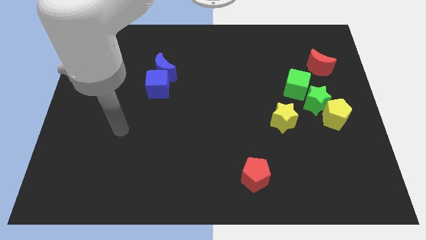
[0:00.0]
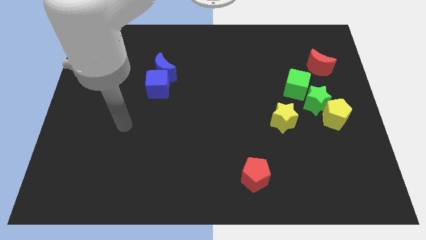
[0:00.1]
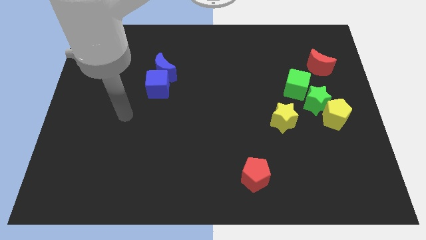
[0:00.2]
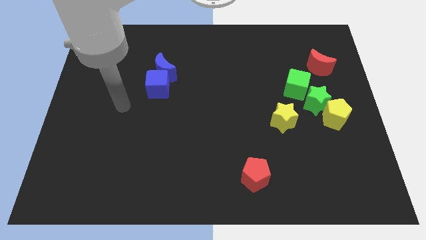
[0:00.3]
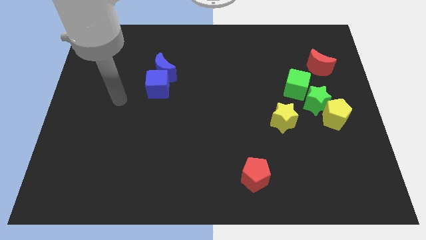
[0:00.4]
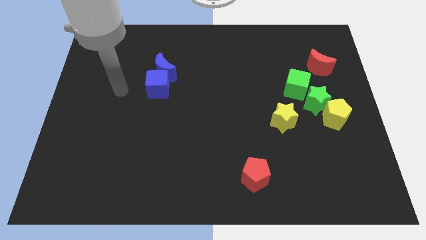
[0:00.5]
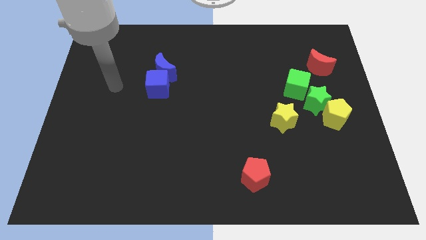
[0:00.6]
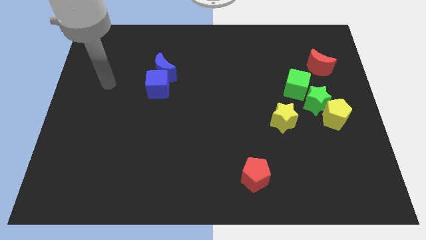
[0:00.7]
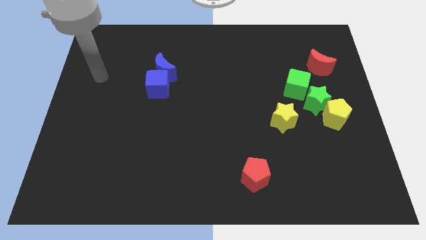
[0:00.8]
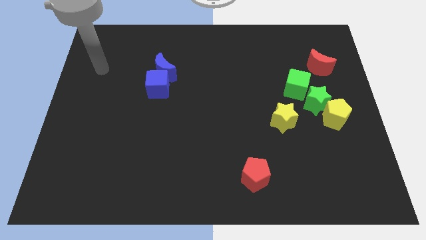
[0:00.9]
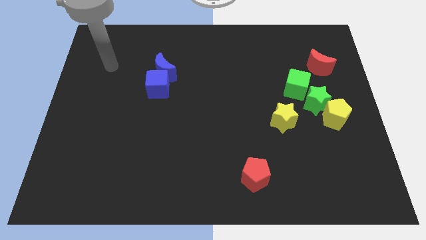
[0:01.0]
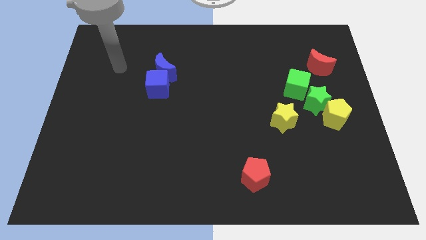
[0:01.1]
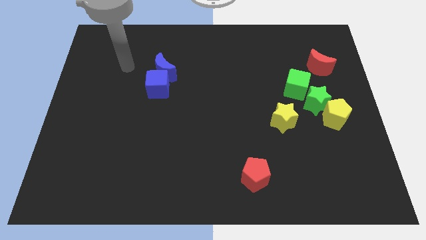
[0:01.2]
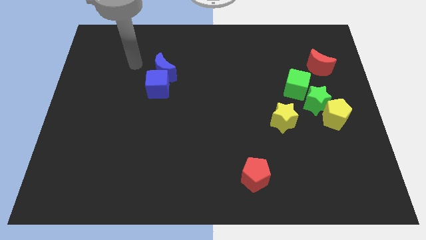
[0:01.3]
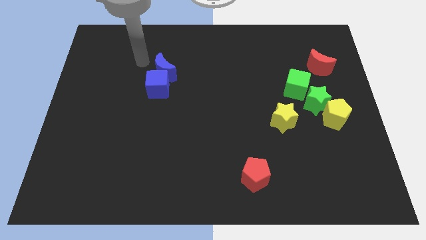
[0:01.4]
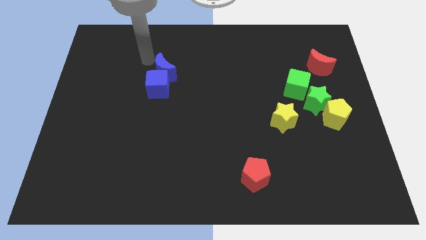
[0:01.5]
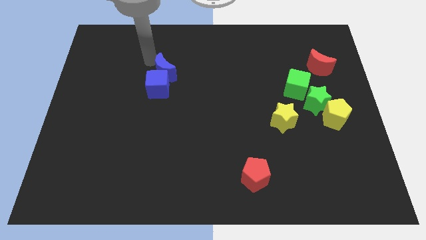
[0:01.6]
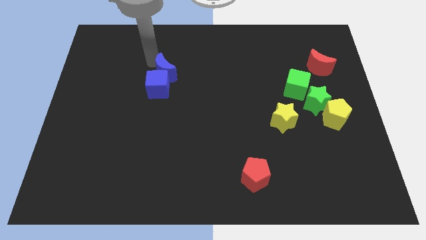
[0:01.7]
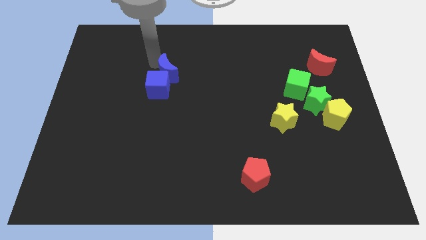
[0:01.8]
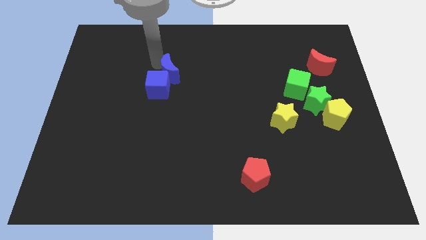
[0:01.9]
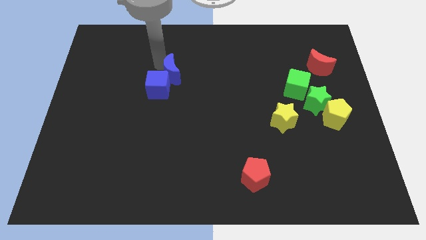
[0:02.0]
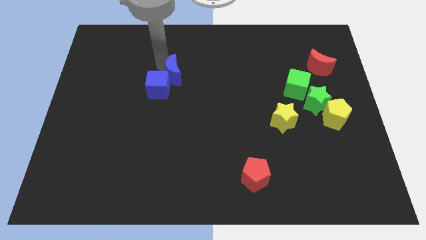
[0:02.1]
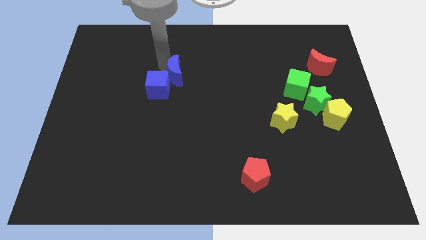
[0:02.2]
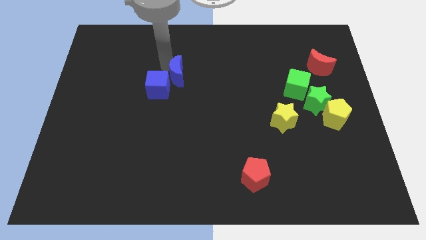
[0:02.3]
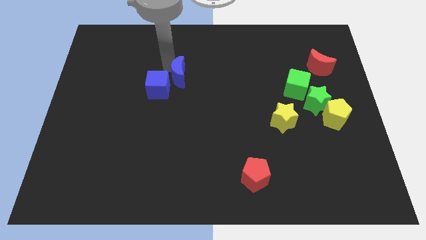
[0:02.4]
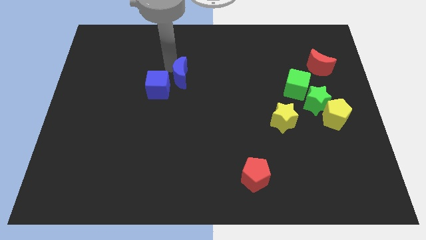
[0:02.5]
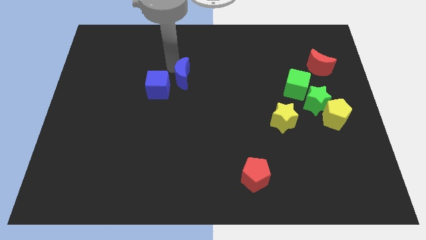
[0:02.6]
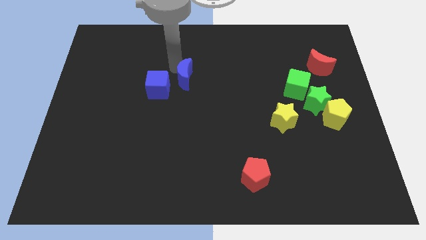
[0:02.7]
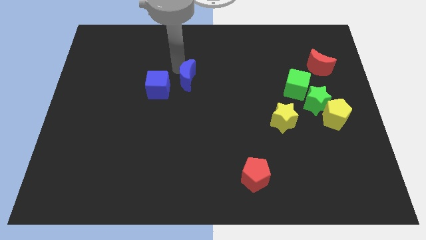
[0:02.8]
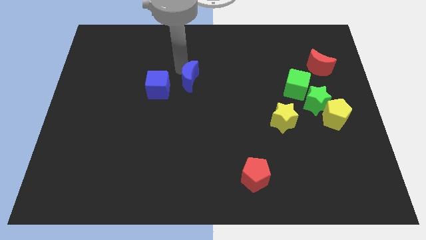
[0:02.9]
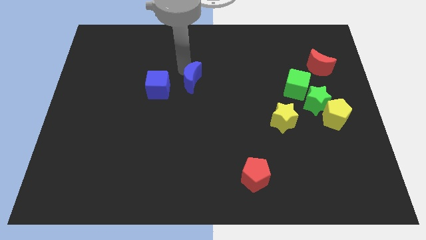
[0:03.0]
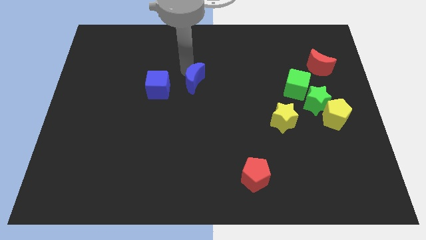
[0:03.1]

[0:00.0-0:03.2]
slightly move the blue moon down and then to the right

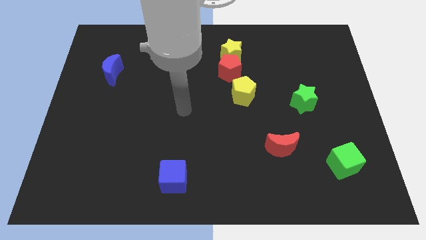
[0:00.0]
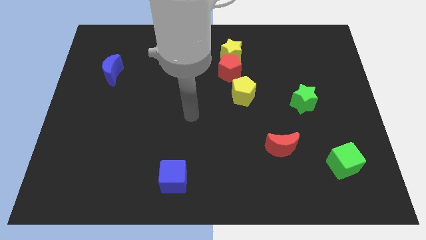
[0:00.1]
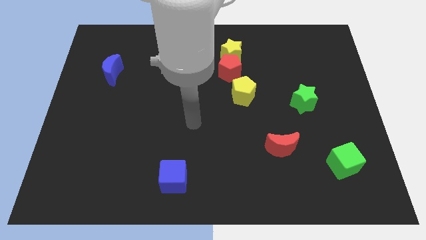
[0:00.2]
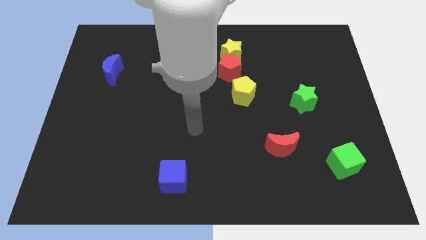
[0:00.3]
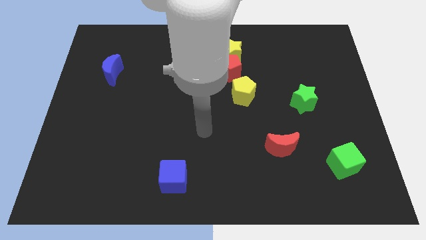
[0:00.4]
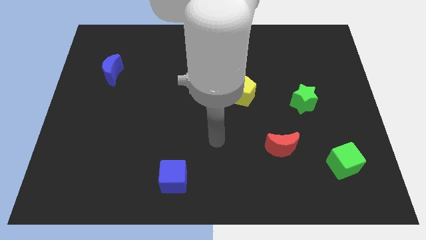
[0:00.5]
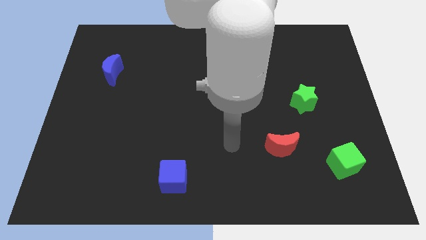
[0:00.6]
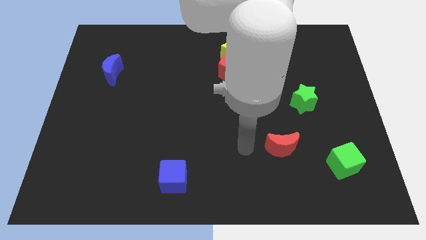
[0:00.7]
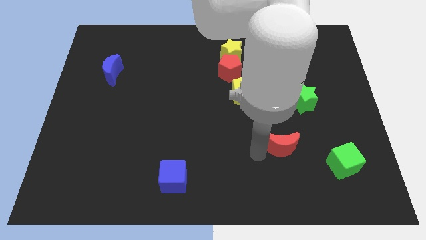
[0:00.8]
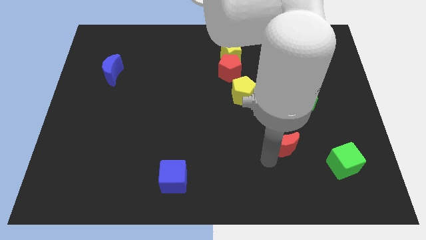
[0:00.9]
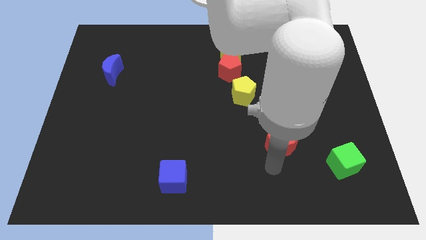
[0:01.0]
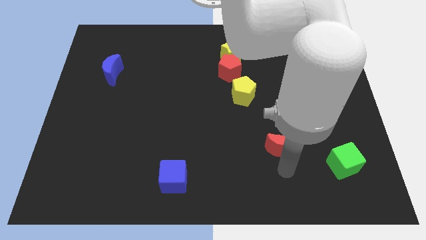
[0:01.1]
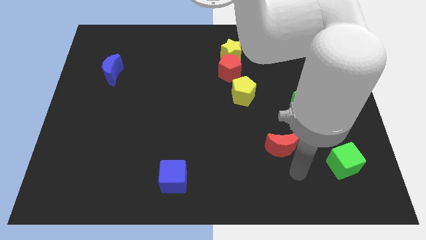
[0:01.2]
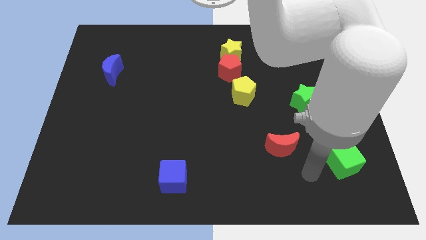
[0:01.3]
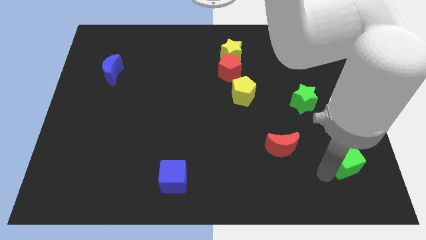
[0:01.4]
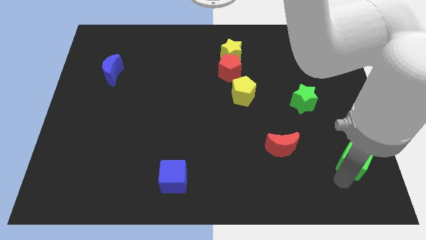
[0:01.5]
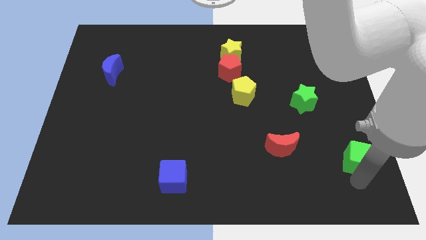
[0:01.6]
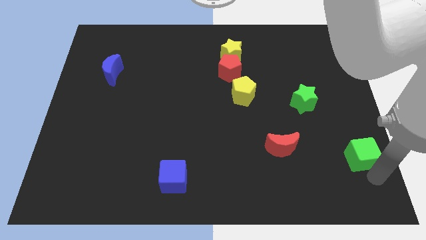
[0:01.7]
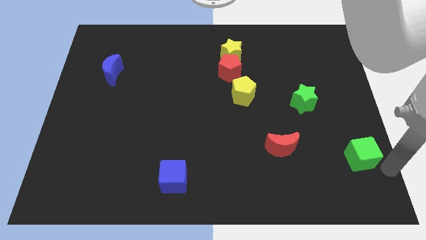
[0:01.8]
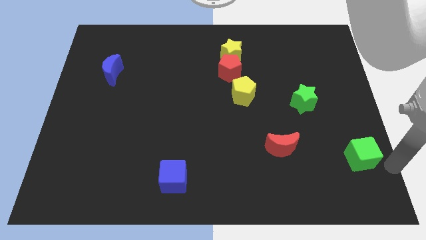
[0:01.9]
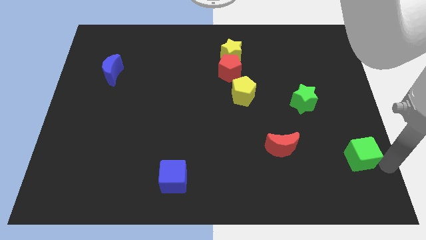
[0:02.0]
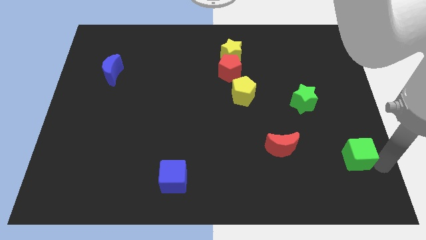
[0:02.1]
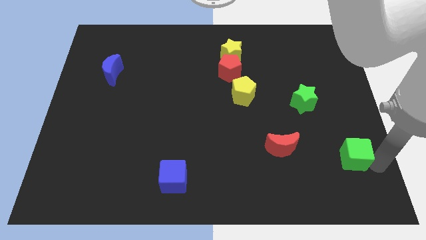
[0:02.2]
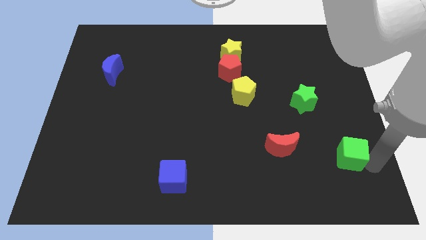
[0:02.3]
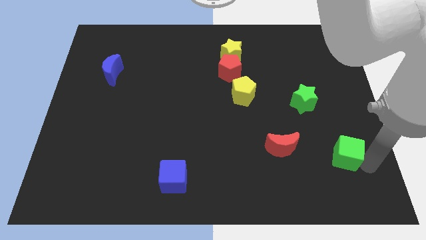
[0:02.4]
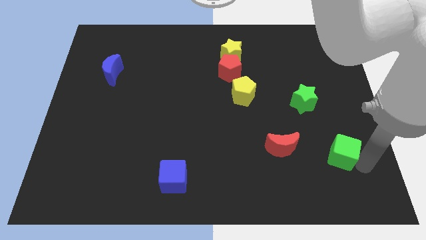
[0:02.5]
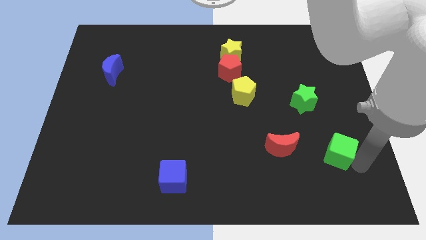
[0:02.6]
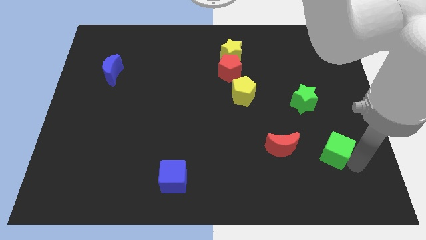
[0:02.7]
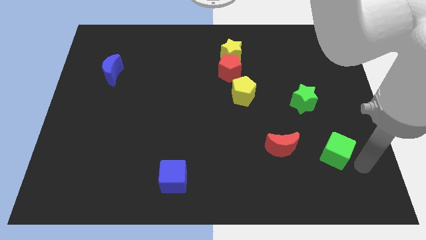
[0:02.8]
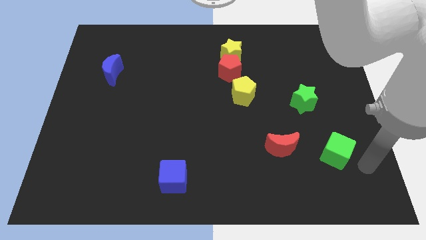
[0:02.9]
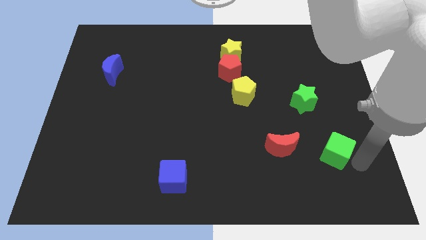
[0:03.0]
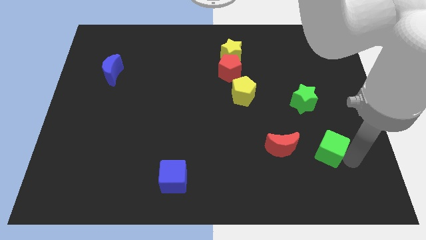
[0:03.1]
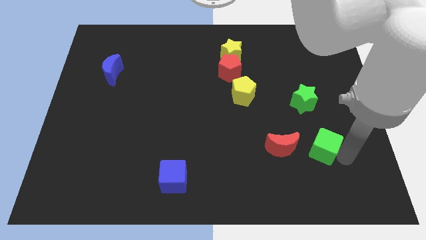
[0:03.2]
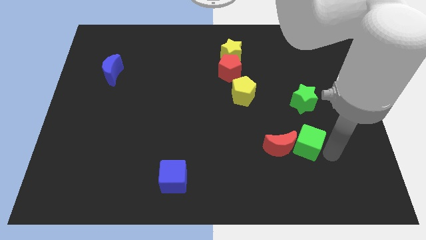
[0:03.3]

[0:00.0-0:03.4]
slightly move the green cube upwards and left

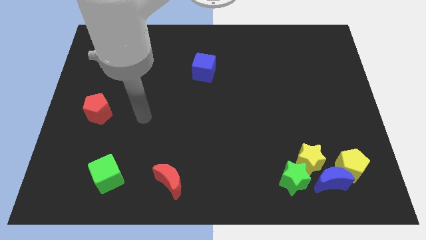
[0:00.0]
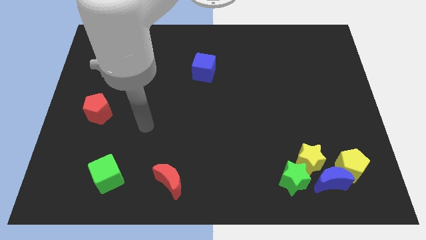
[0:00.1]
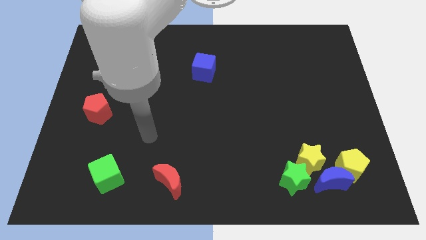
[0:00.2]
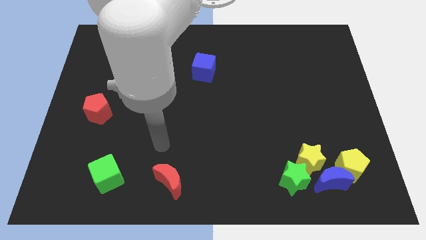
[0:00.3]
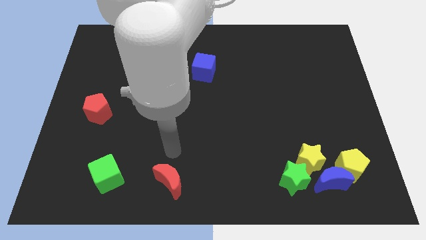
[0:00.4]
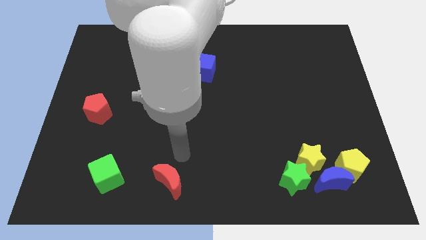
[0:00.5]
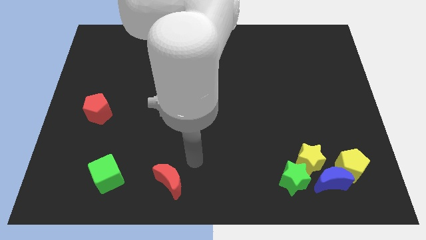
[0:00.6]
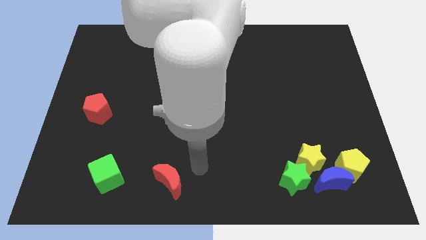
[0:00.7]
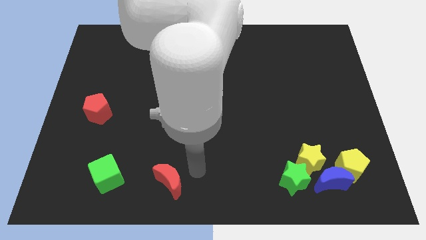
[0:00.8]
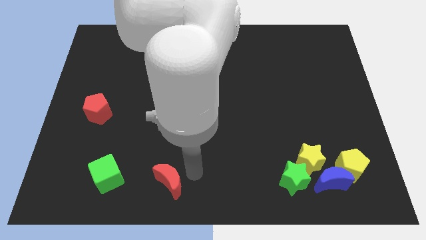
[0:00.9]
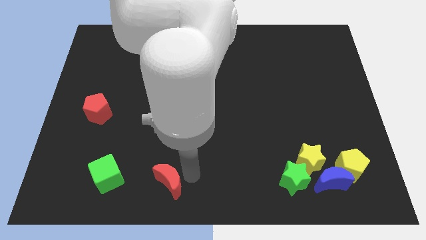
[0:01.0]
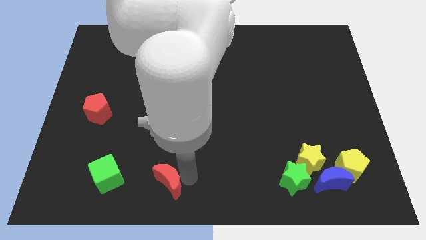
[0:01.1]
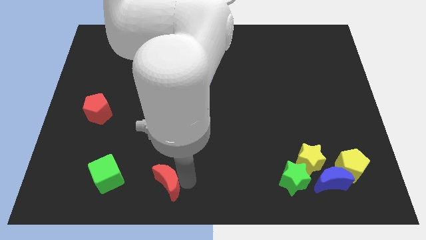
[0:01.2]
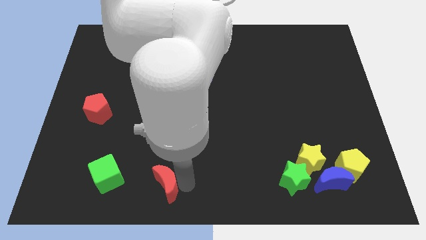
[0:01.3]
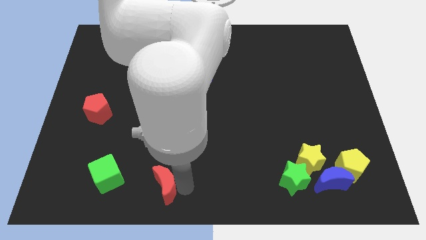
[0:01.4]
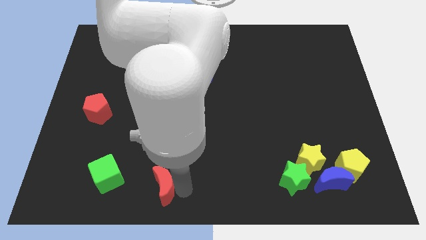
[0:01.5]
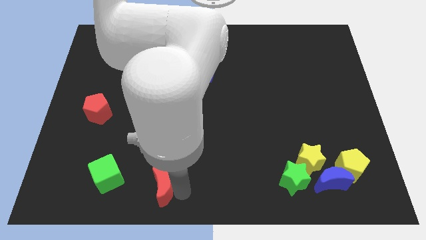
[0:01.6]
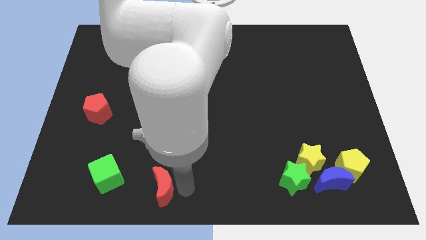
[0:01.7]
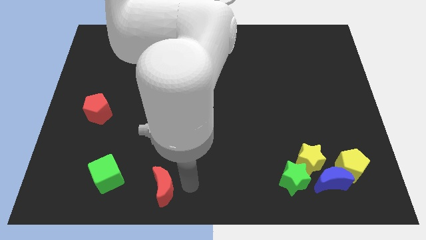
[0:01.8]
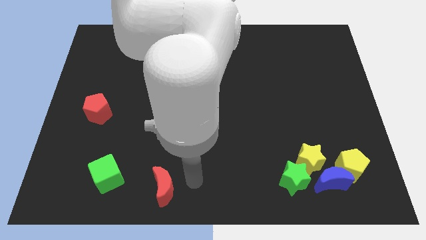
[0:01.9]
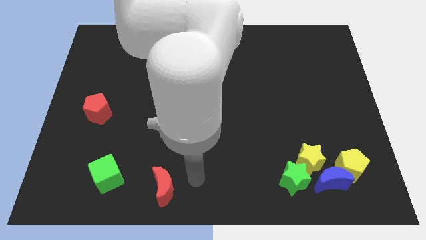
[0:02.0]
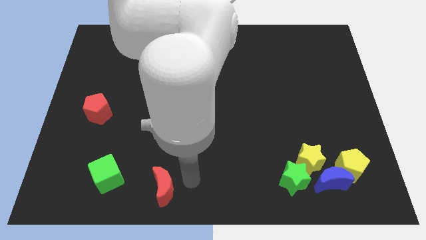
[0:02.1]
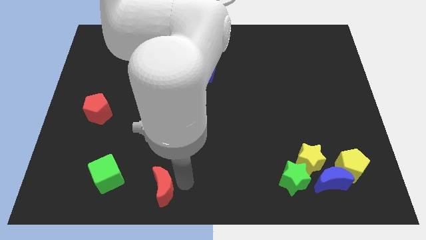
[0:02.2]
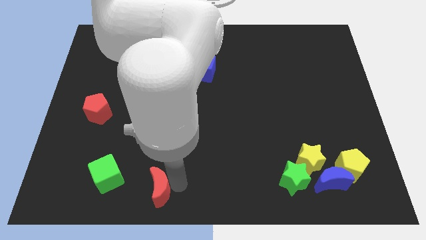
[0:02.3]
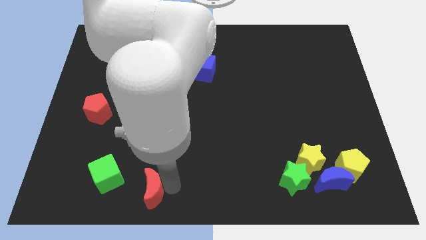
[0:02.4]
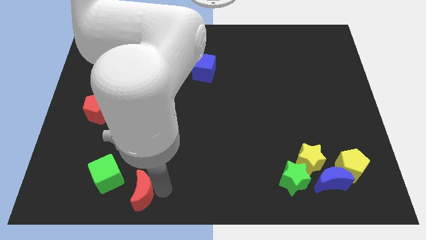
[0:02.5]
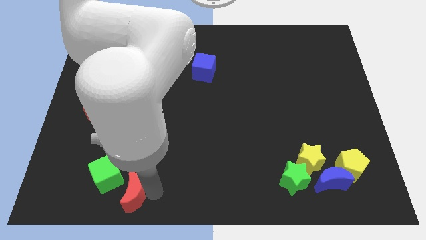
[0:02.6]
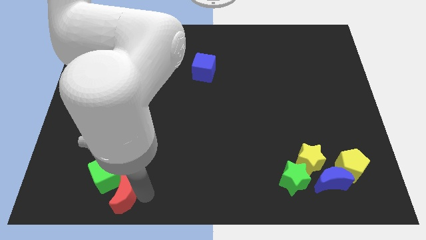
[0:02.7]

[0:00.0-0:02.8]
slightly slide the red moon to the left
